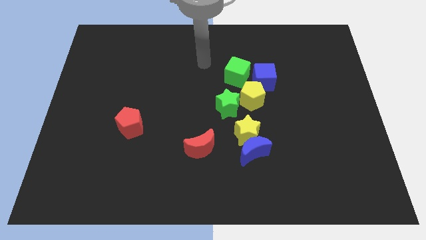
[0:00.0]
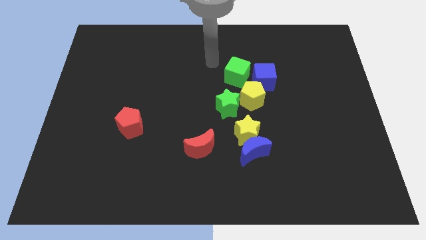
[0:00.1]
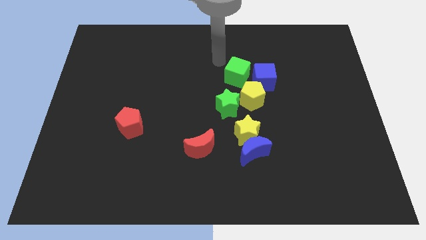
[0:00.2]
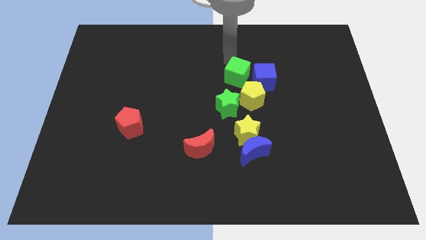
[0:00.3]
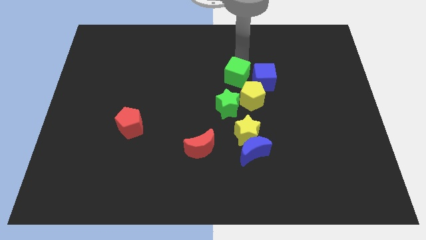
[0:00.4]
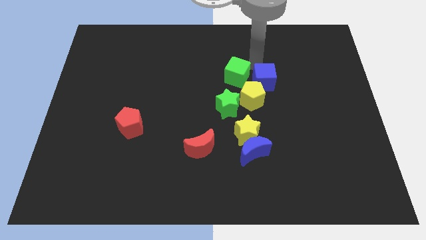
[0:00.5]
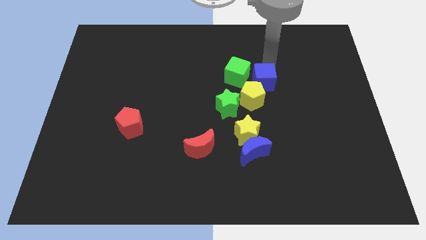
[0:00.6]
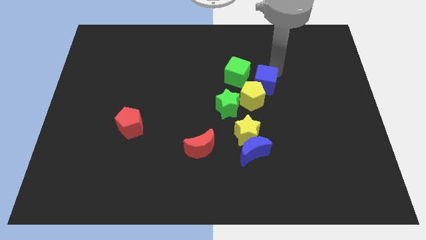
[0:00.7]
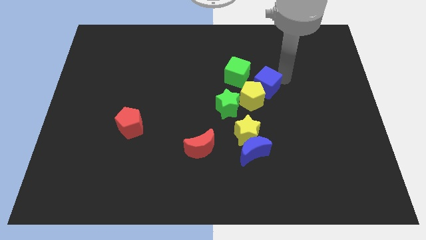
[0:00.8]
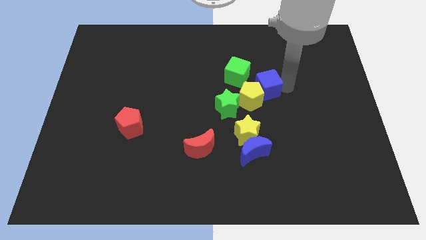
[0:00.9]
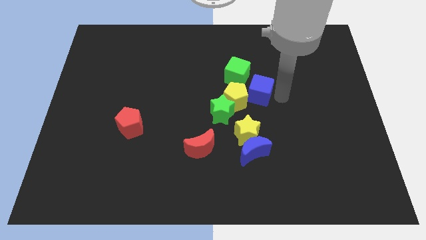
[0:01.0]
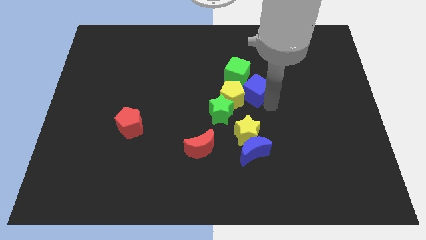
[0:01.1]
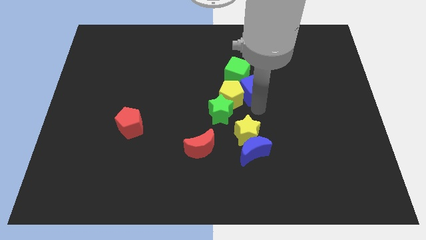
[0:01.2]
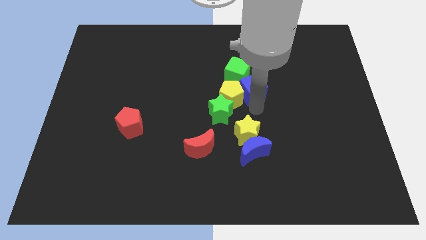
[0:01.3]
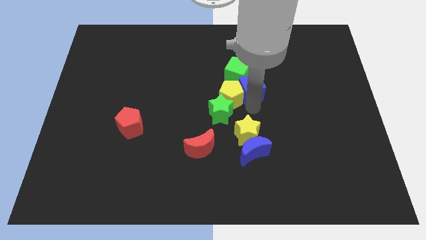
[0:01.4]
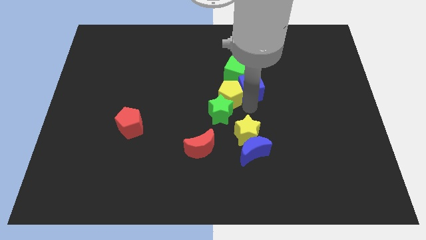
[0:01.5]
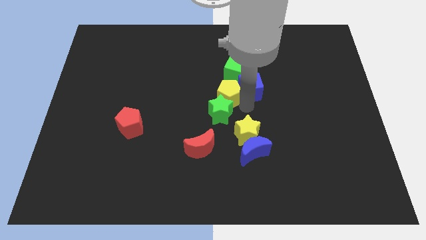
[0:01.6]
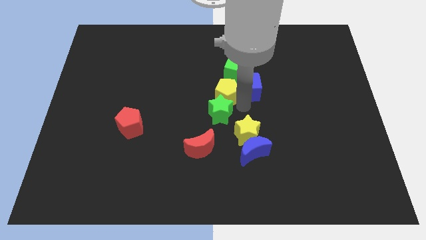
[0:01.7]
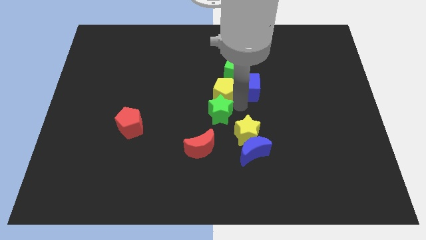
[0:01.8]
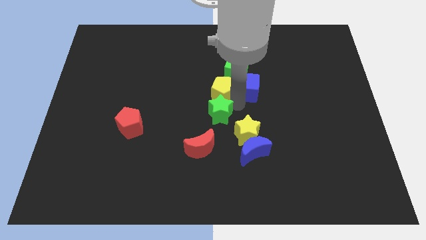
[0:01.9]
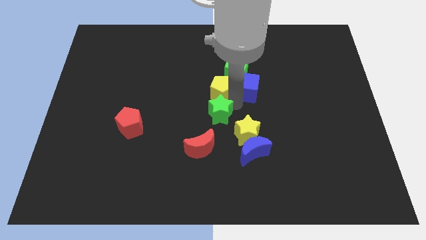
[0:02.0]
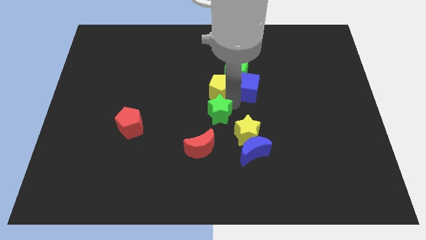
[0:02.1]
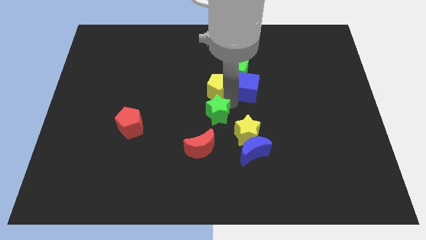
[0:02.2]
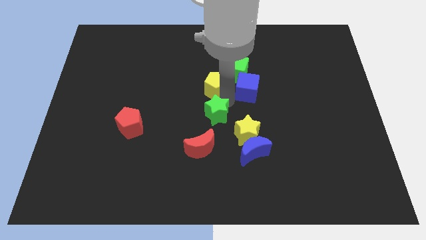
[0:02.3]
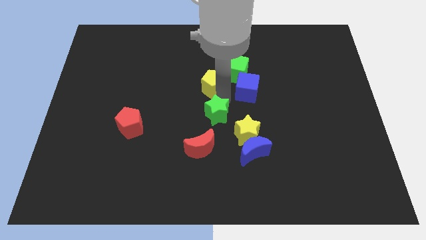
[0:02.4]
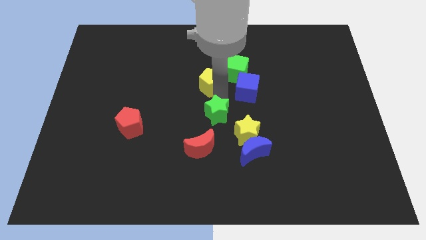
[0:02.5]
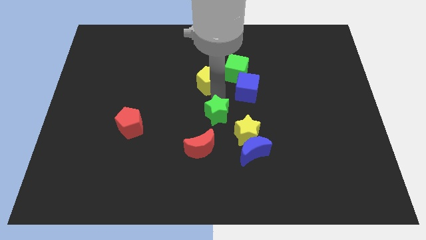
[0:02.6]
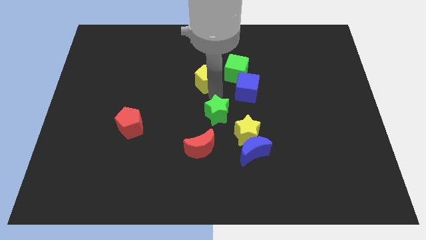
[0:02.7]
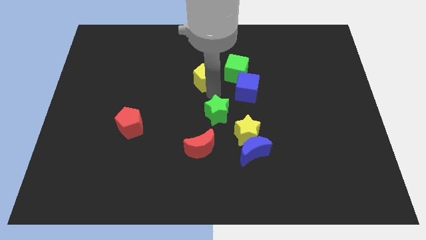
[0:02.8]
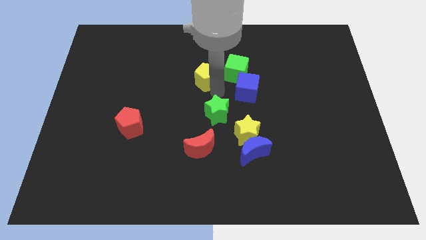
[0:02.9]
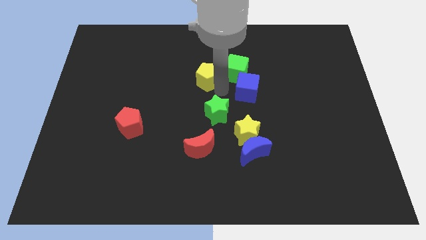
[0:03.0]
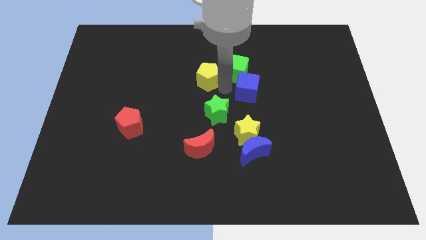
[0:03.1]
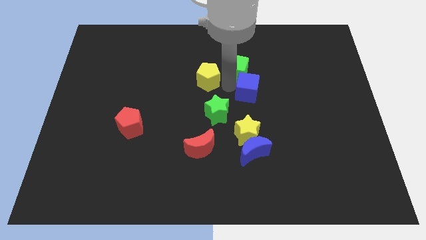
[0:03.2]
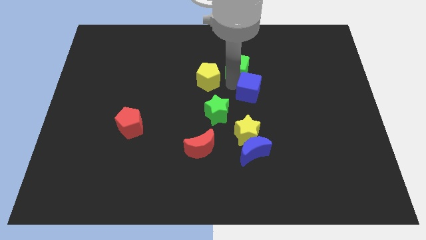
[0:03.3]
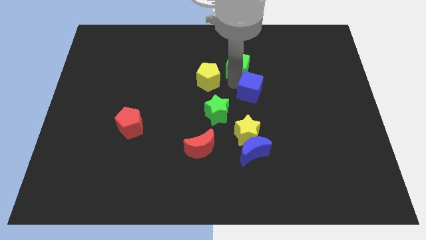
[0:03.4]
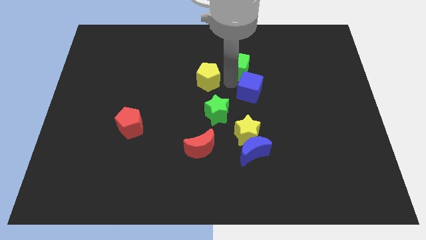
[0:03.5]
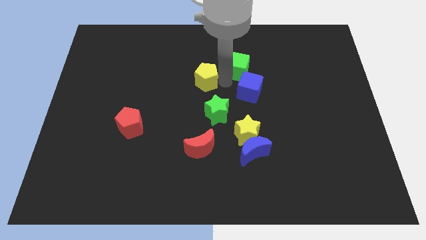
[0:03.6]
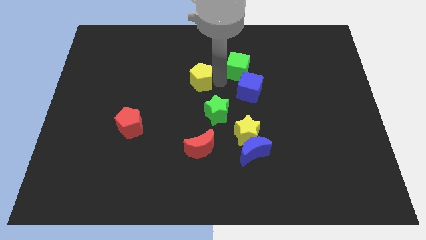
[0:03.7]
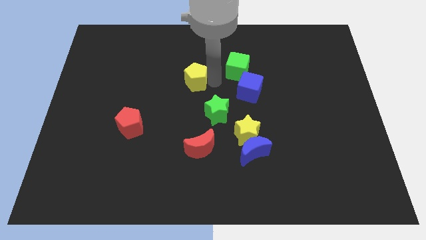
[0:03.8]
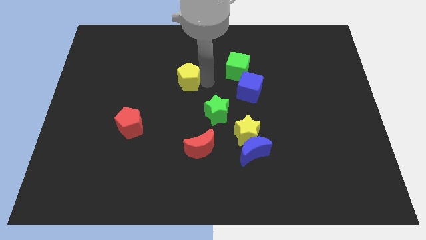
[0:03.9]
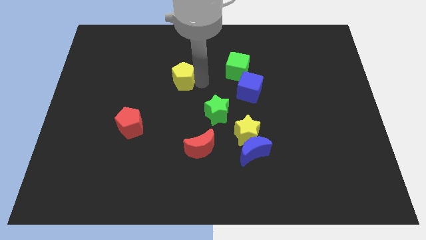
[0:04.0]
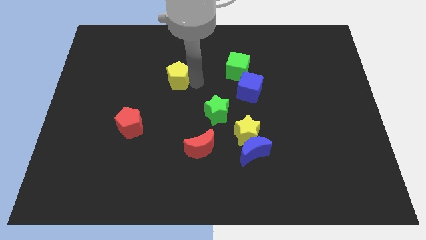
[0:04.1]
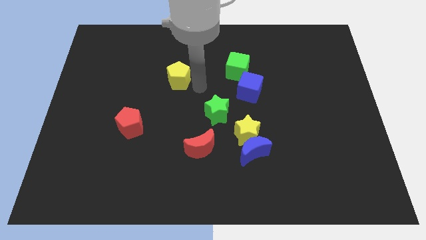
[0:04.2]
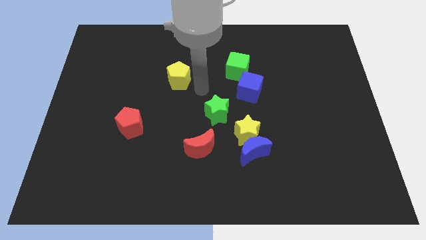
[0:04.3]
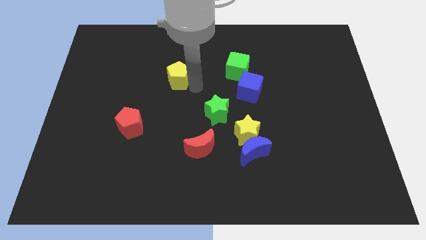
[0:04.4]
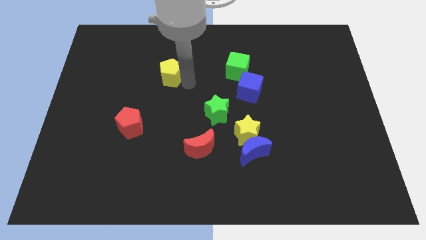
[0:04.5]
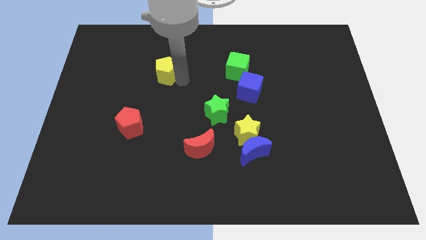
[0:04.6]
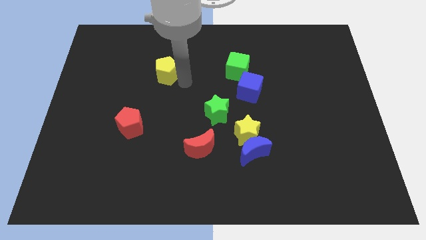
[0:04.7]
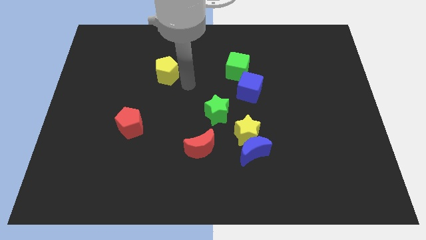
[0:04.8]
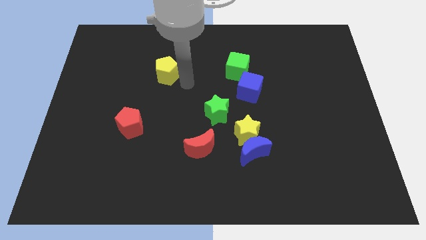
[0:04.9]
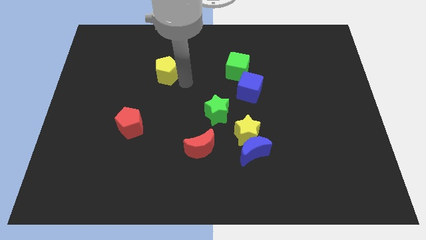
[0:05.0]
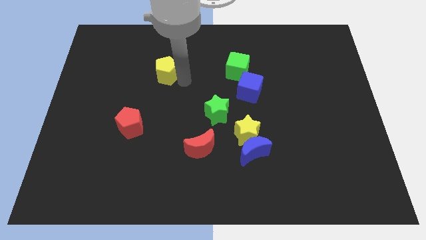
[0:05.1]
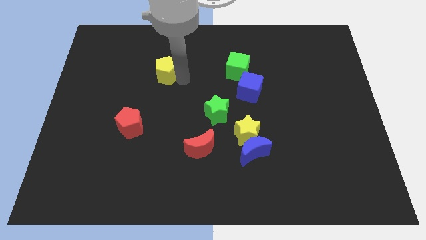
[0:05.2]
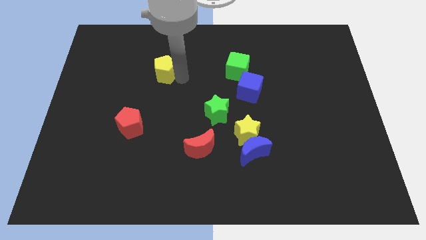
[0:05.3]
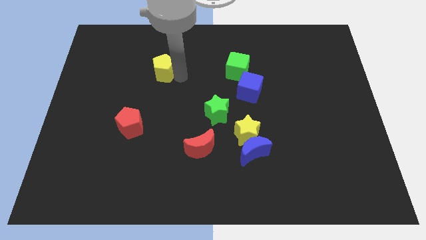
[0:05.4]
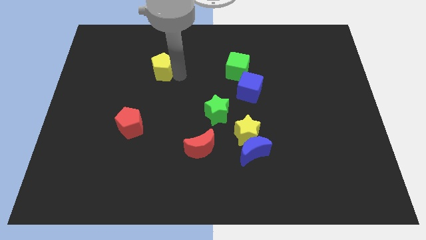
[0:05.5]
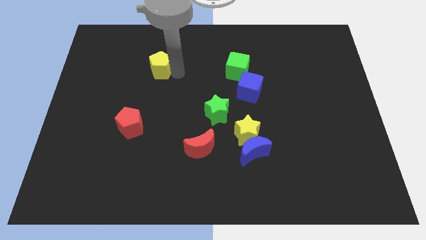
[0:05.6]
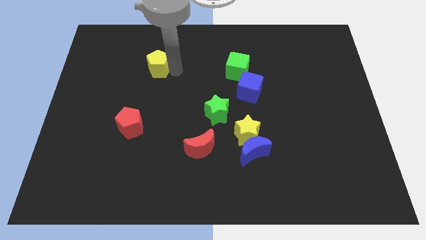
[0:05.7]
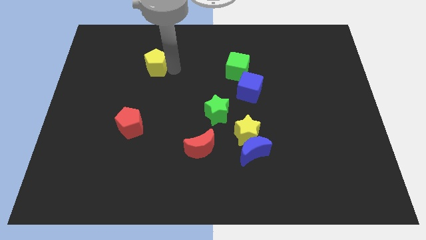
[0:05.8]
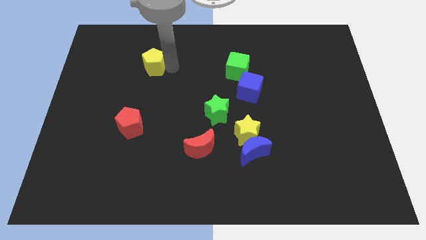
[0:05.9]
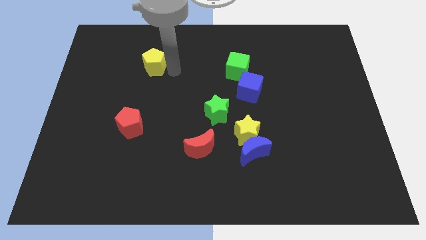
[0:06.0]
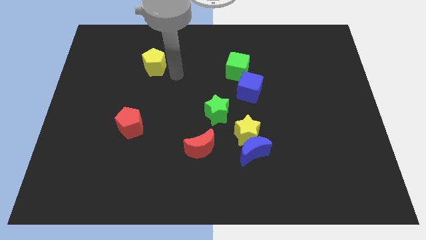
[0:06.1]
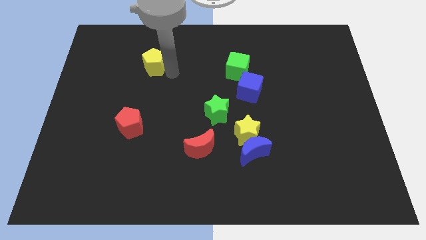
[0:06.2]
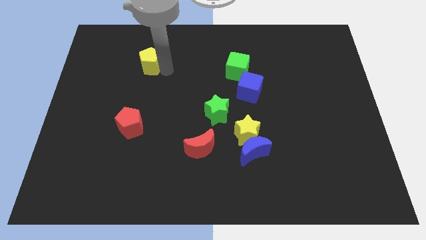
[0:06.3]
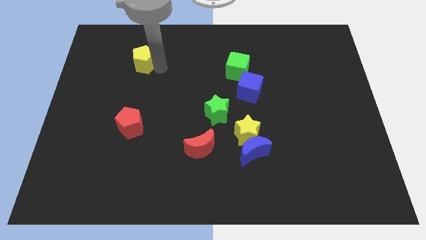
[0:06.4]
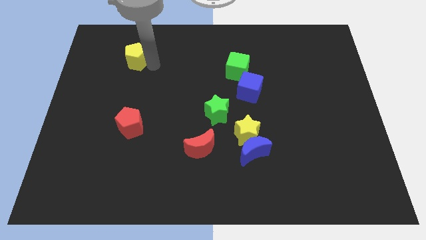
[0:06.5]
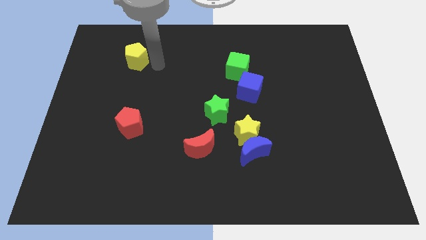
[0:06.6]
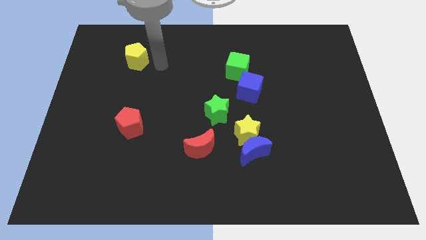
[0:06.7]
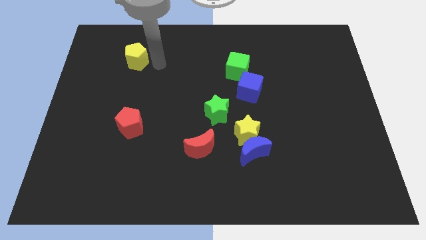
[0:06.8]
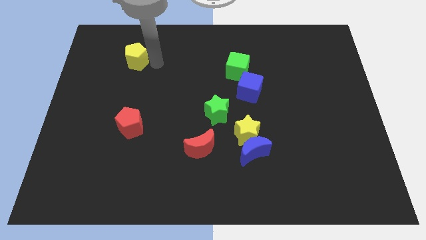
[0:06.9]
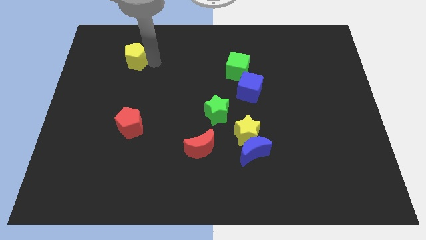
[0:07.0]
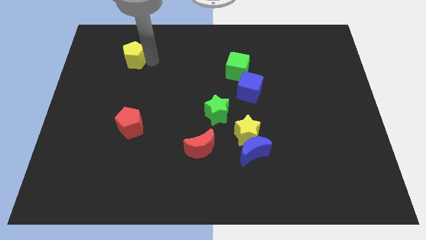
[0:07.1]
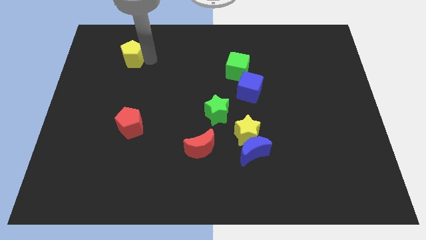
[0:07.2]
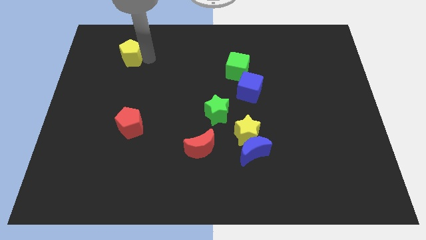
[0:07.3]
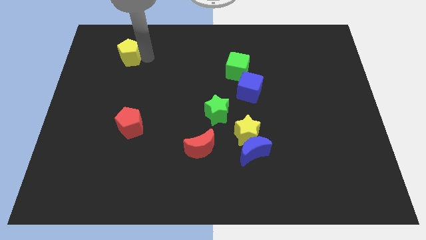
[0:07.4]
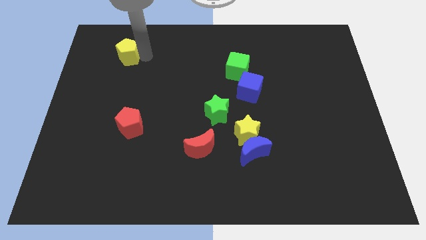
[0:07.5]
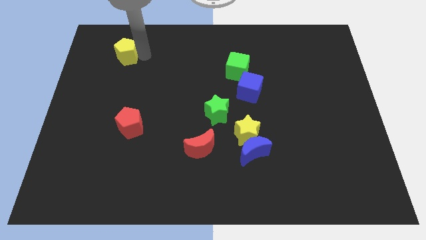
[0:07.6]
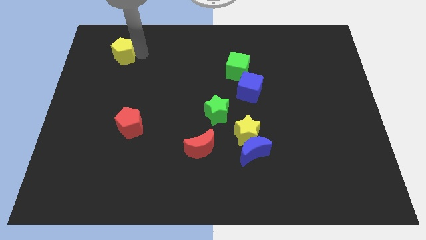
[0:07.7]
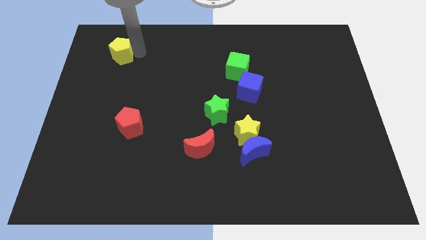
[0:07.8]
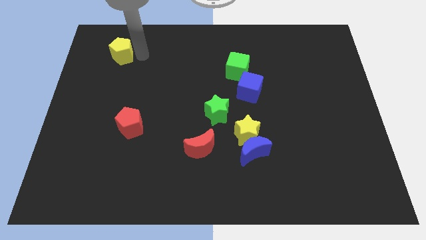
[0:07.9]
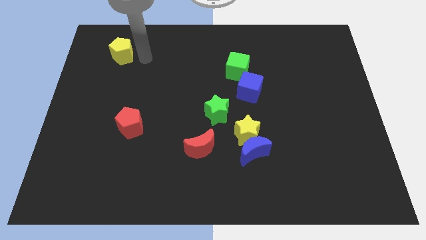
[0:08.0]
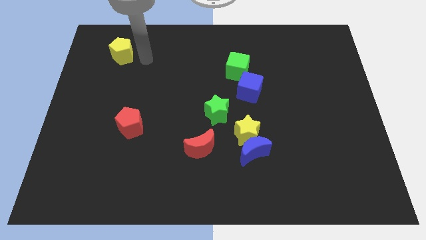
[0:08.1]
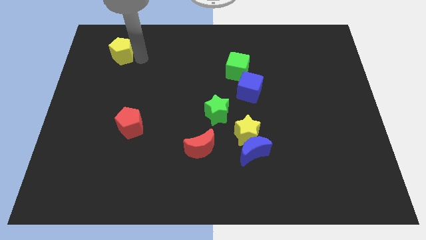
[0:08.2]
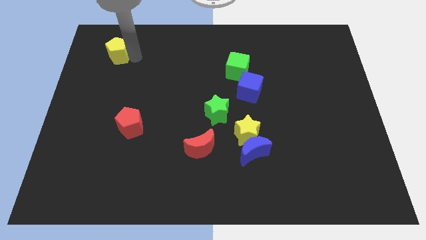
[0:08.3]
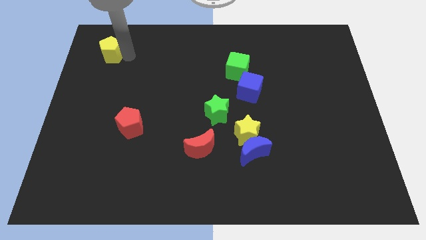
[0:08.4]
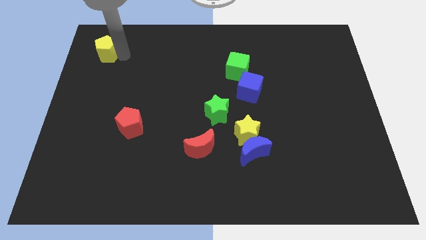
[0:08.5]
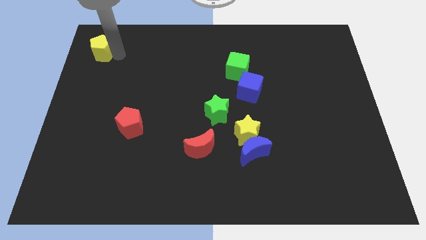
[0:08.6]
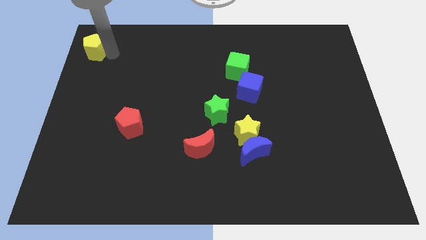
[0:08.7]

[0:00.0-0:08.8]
push the yellow pentagon to the upper left corner
